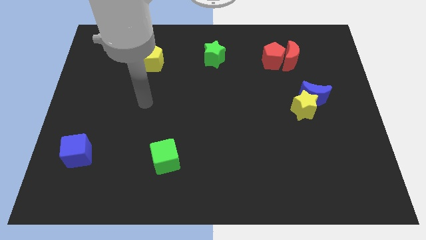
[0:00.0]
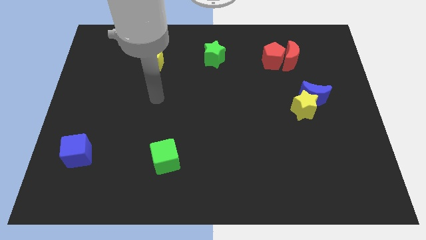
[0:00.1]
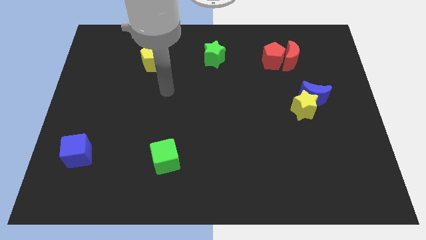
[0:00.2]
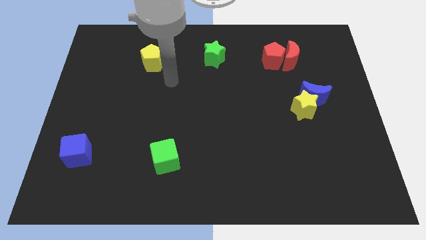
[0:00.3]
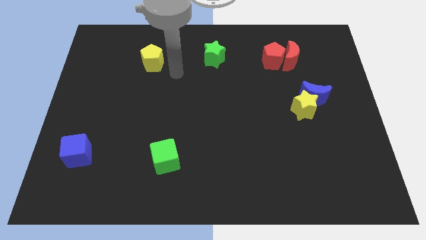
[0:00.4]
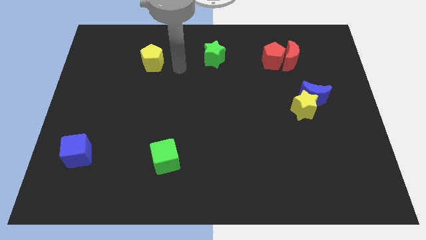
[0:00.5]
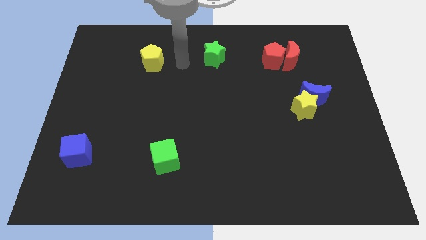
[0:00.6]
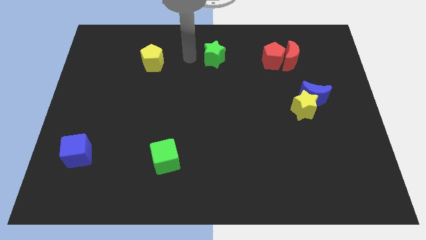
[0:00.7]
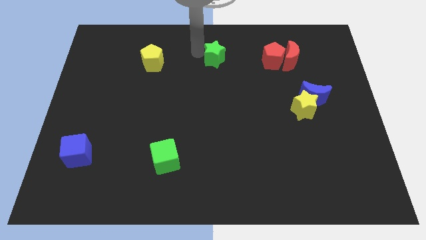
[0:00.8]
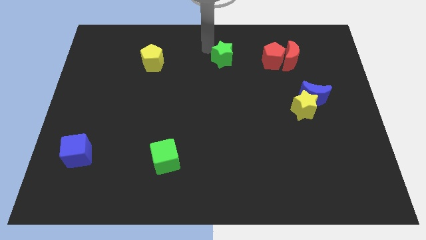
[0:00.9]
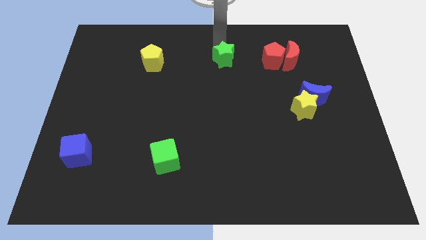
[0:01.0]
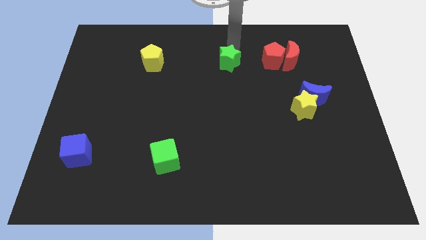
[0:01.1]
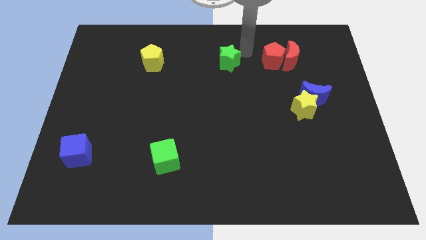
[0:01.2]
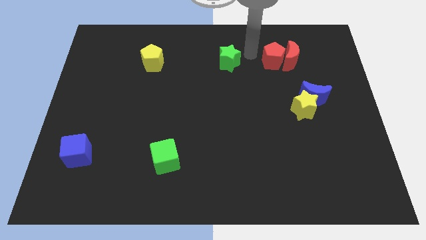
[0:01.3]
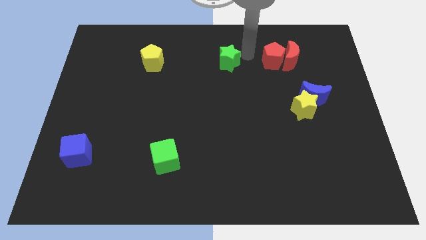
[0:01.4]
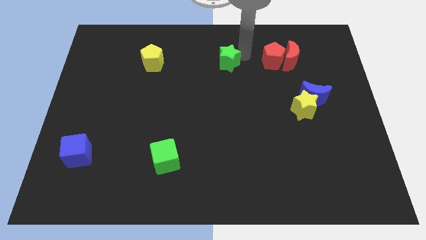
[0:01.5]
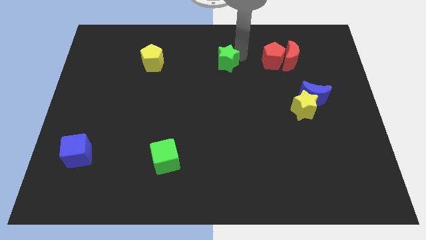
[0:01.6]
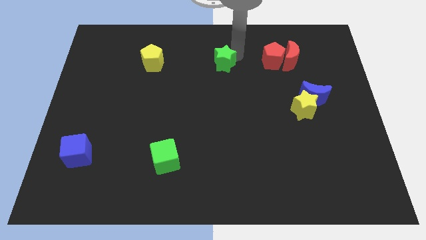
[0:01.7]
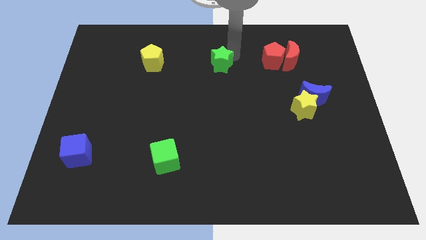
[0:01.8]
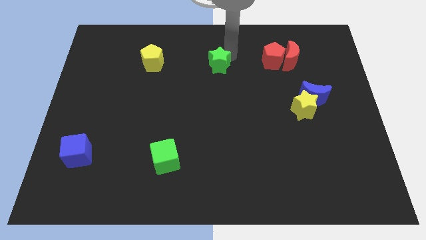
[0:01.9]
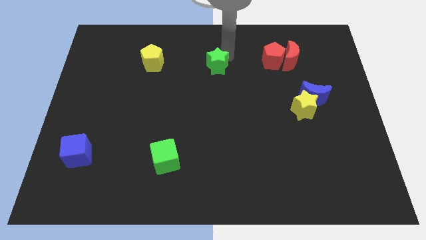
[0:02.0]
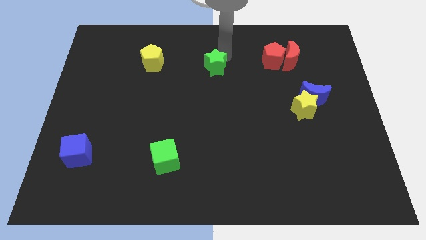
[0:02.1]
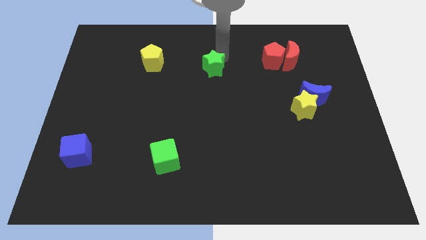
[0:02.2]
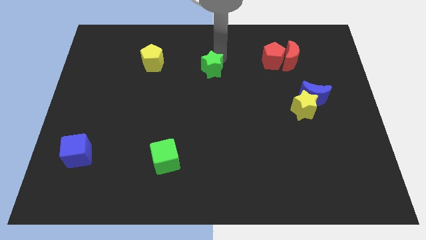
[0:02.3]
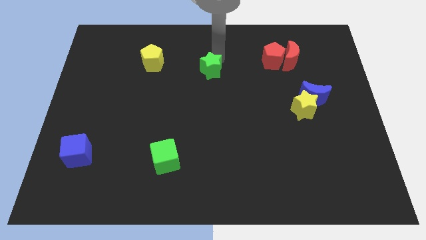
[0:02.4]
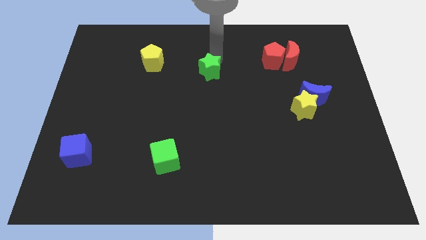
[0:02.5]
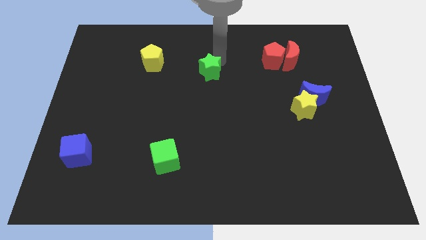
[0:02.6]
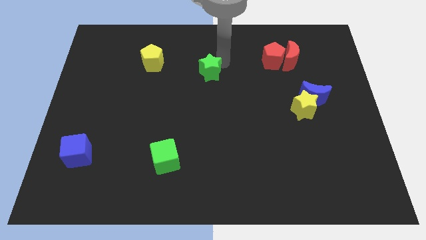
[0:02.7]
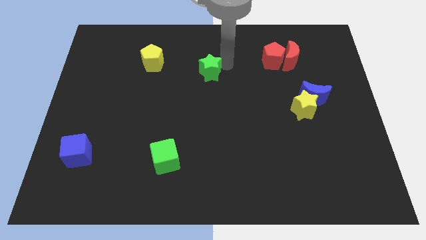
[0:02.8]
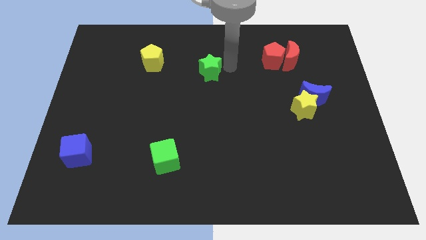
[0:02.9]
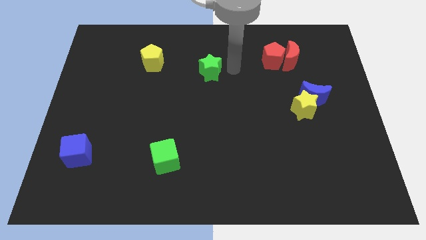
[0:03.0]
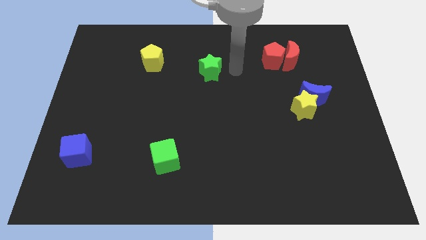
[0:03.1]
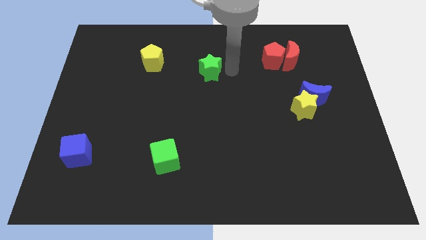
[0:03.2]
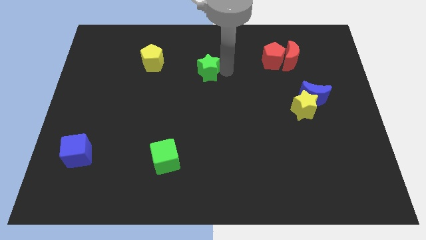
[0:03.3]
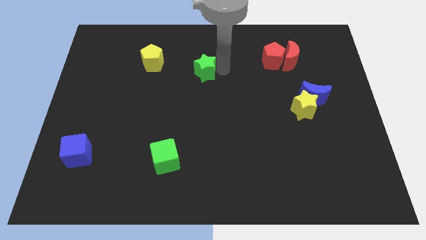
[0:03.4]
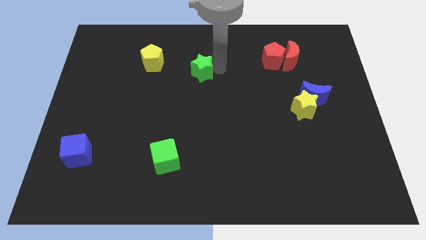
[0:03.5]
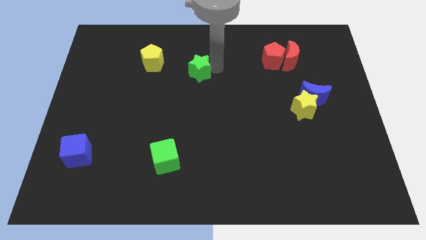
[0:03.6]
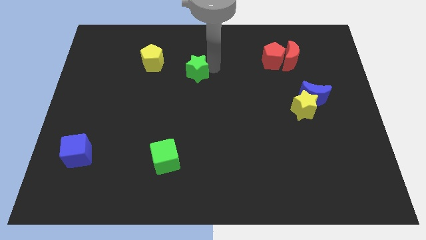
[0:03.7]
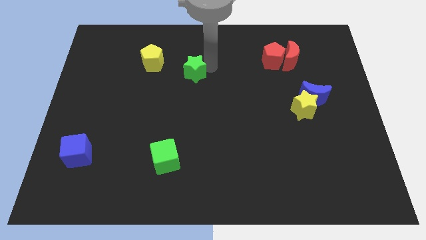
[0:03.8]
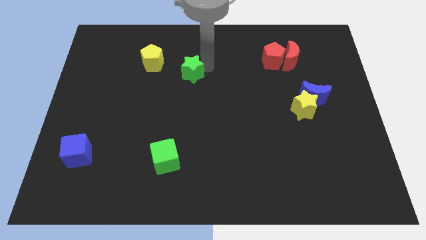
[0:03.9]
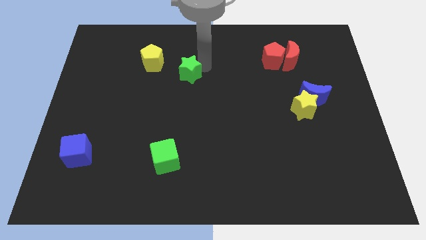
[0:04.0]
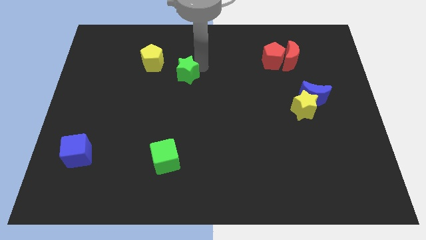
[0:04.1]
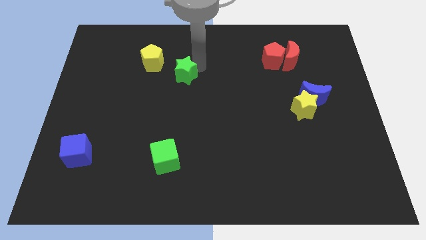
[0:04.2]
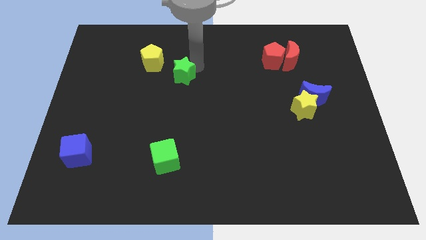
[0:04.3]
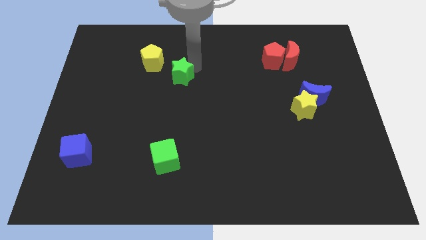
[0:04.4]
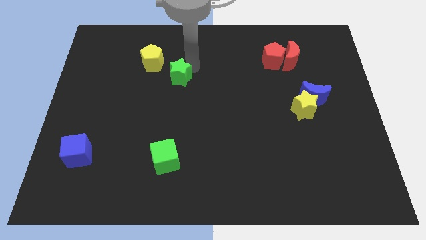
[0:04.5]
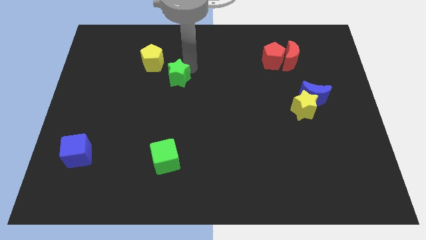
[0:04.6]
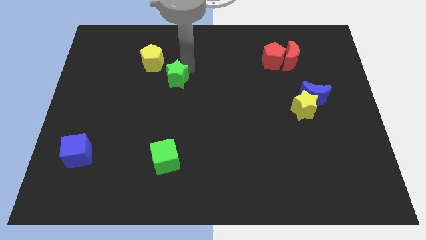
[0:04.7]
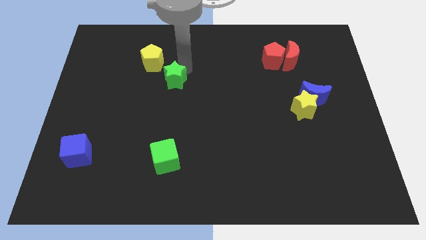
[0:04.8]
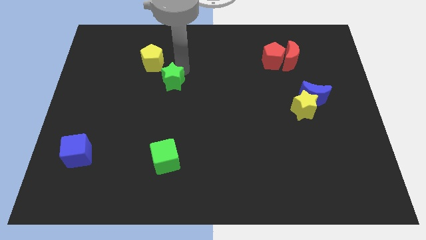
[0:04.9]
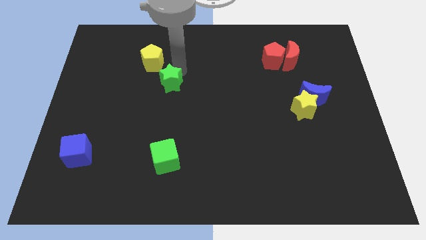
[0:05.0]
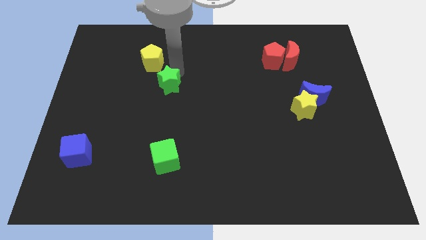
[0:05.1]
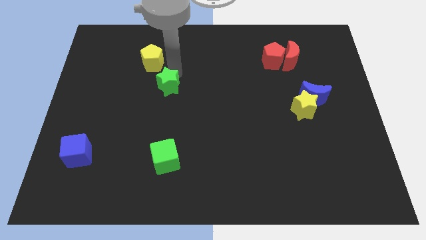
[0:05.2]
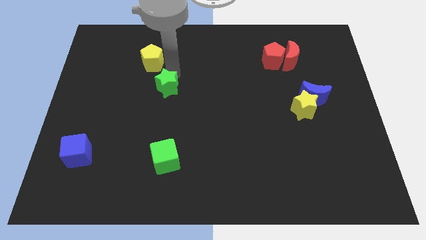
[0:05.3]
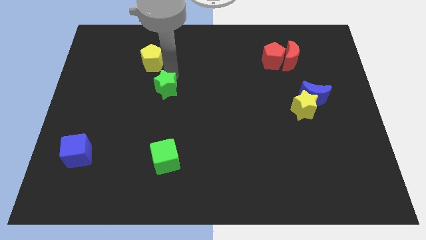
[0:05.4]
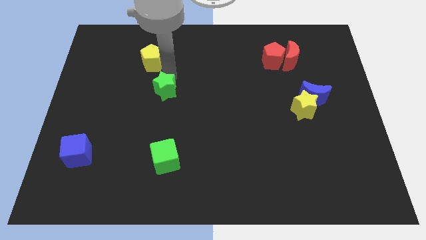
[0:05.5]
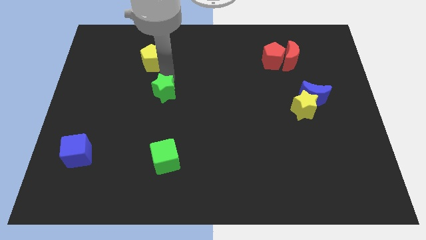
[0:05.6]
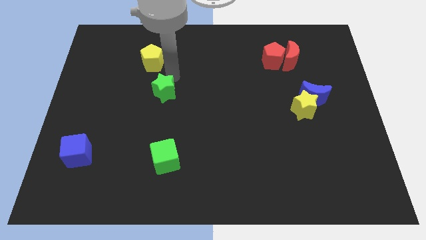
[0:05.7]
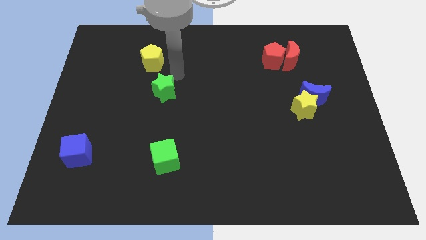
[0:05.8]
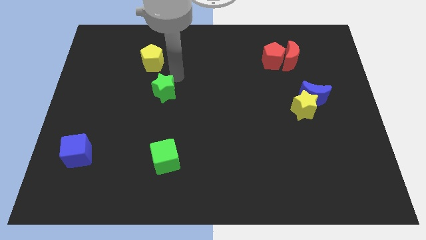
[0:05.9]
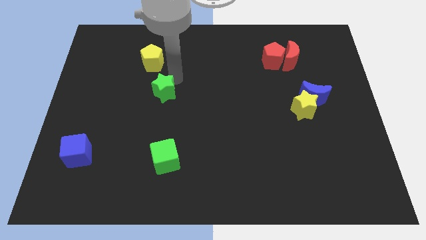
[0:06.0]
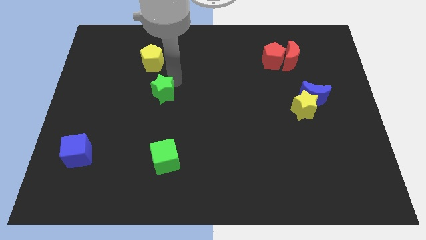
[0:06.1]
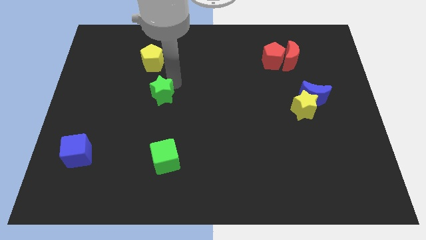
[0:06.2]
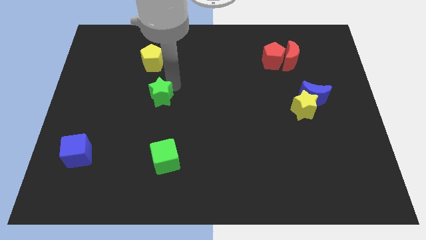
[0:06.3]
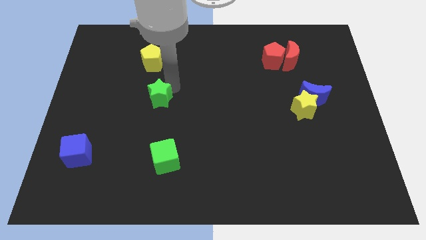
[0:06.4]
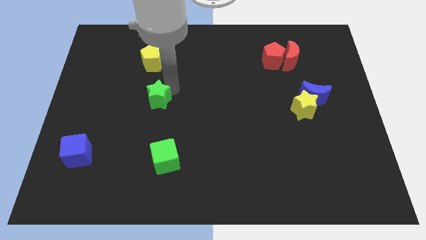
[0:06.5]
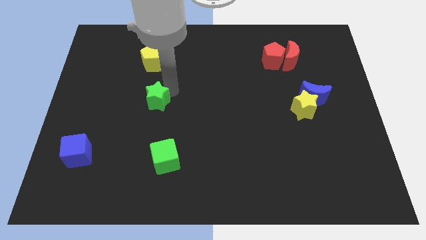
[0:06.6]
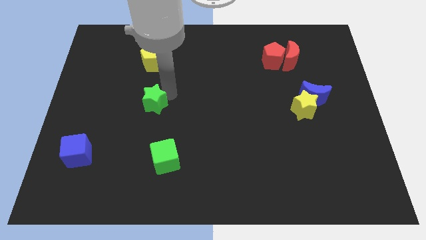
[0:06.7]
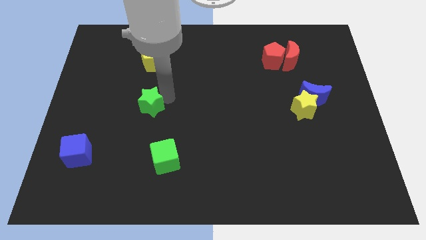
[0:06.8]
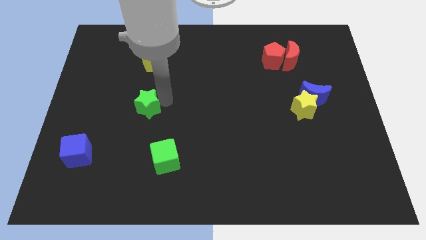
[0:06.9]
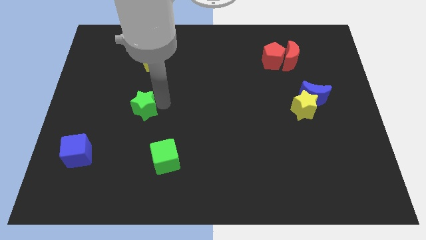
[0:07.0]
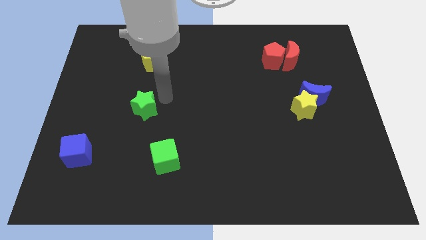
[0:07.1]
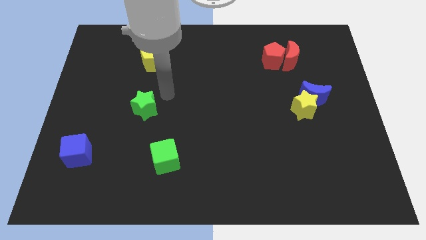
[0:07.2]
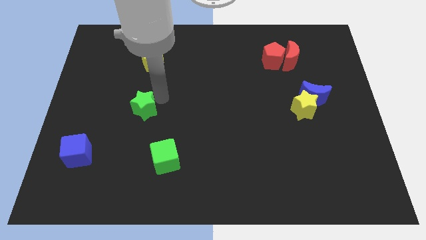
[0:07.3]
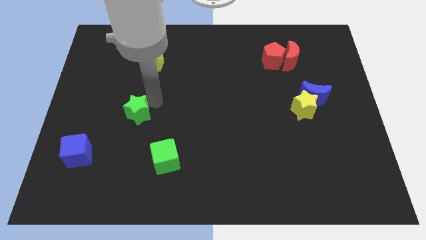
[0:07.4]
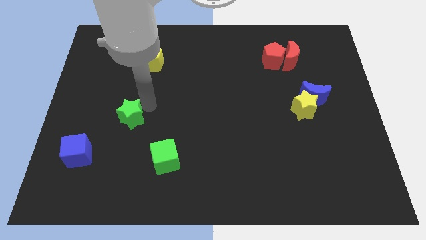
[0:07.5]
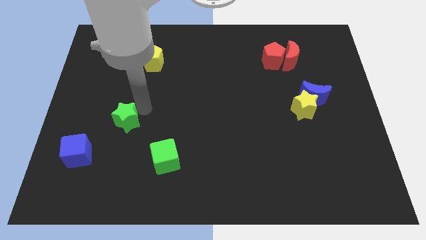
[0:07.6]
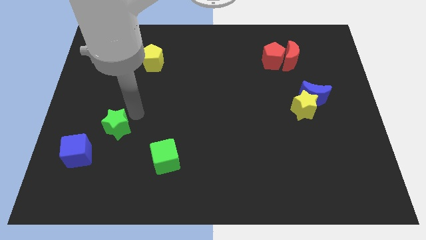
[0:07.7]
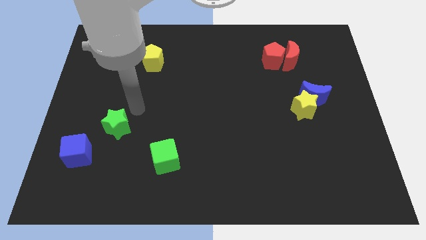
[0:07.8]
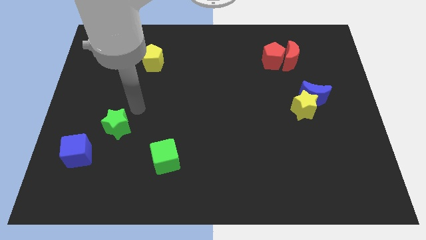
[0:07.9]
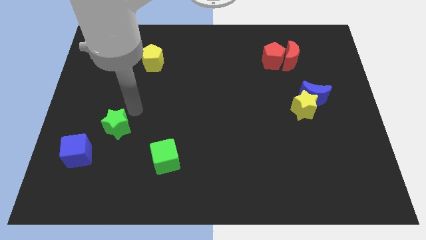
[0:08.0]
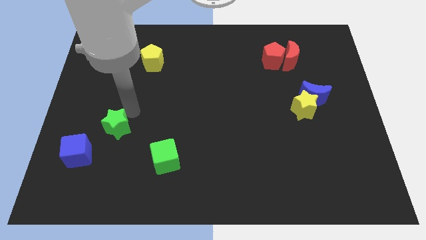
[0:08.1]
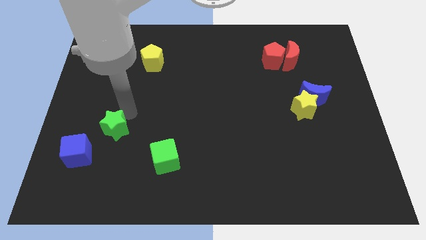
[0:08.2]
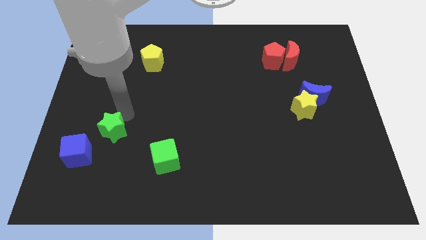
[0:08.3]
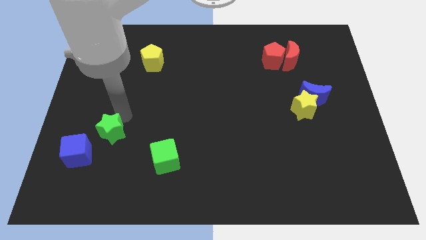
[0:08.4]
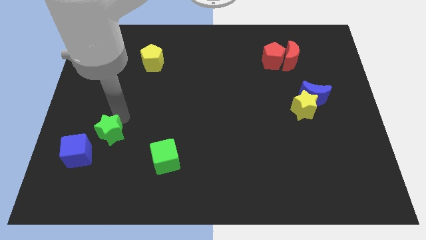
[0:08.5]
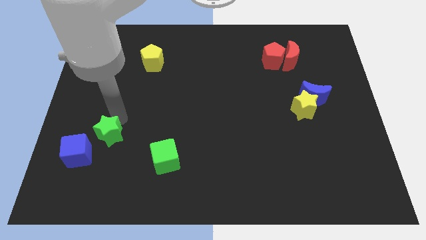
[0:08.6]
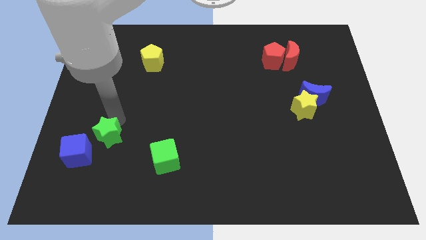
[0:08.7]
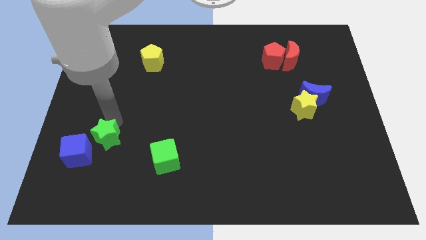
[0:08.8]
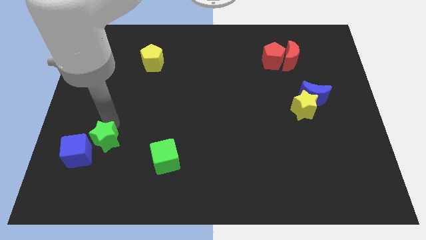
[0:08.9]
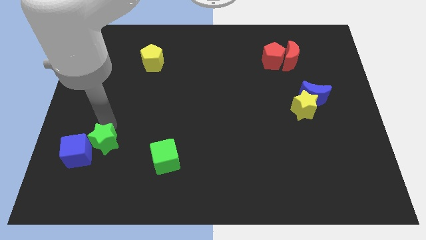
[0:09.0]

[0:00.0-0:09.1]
slide the green star close to the blue cube
